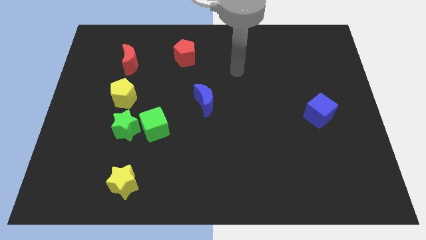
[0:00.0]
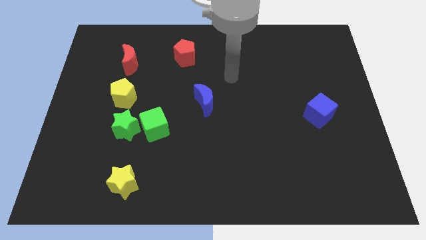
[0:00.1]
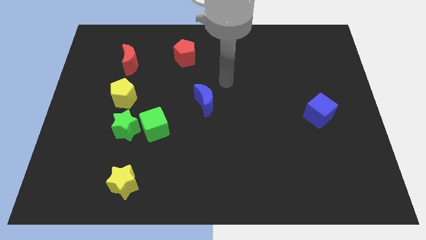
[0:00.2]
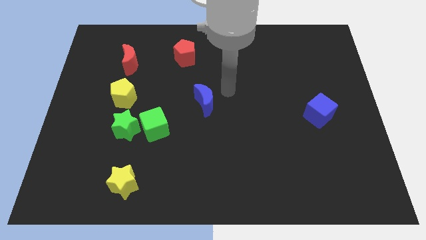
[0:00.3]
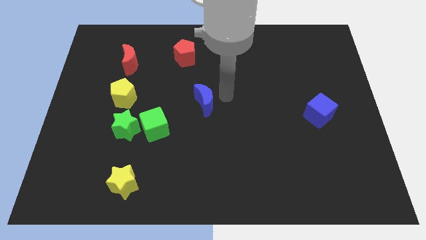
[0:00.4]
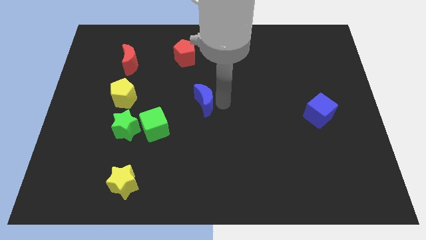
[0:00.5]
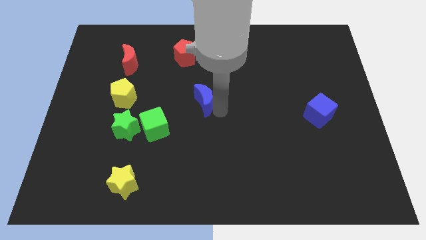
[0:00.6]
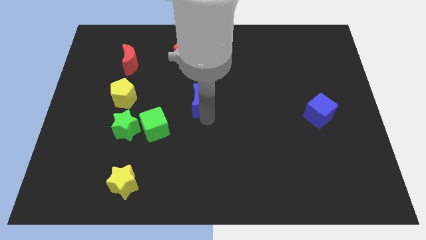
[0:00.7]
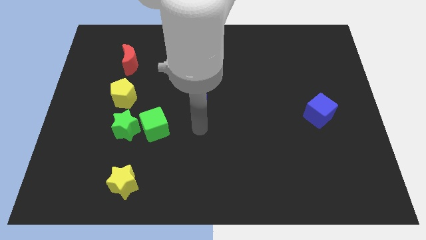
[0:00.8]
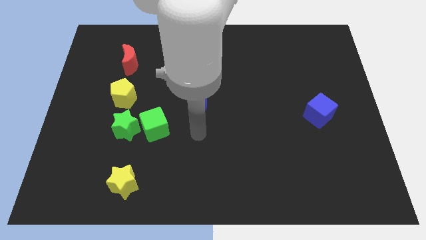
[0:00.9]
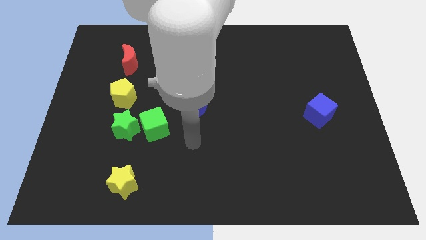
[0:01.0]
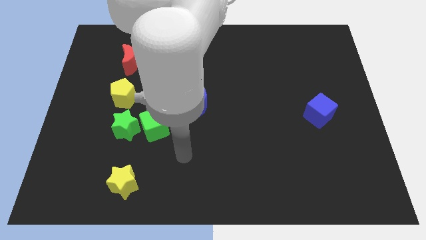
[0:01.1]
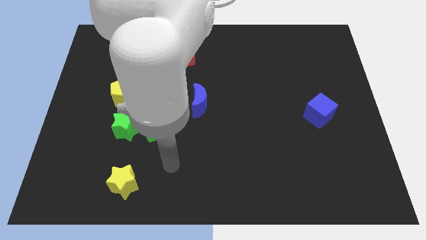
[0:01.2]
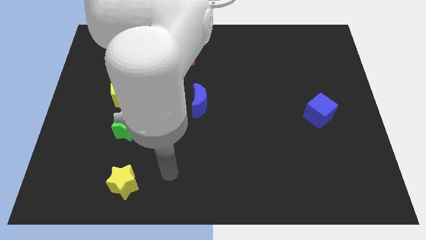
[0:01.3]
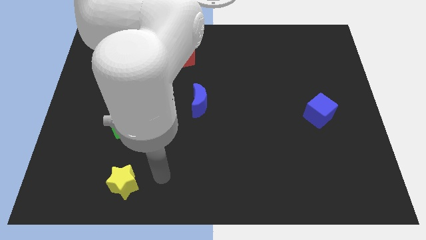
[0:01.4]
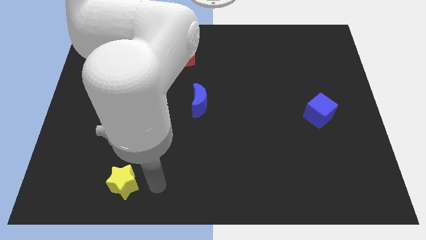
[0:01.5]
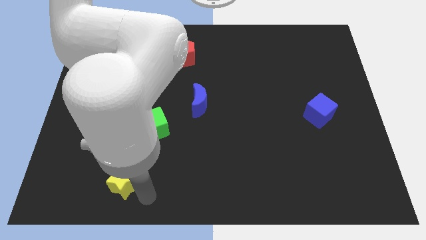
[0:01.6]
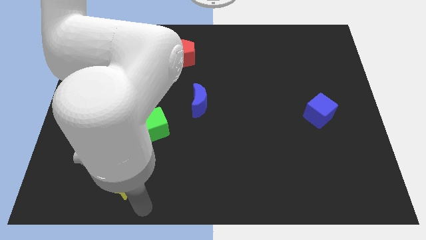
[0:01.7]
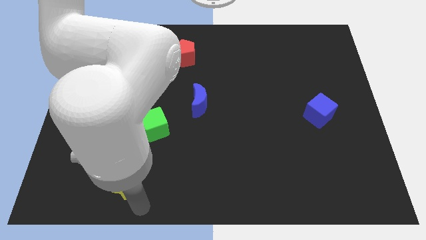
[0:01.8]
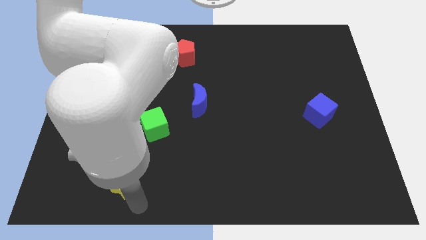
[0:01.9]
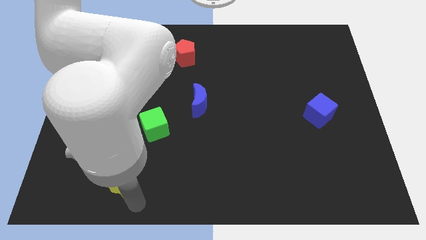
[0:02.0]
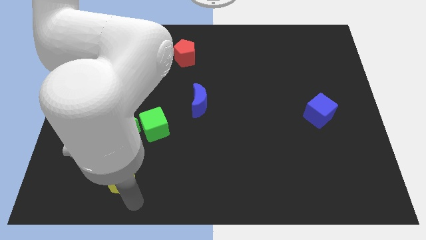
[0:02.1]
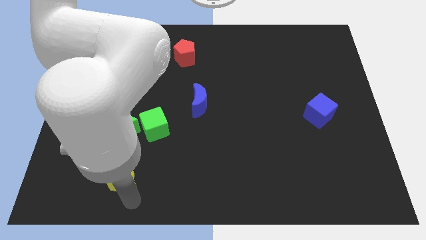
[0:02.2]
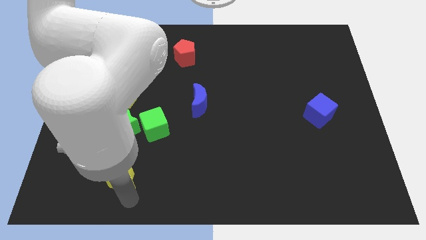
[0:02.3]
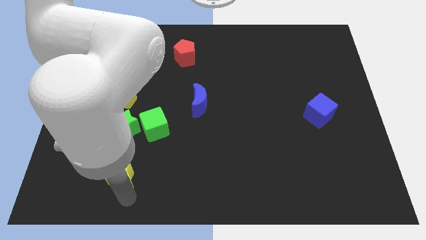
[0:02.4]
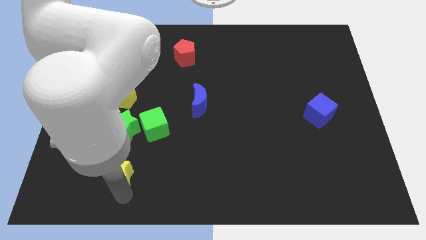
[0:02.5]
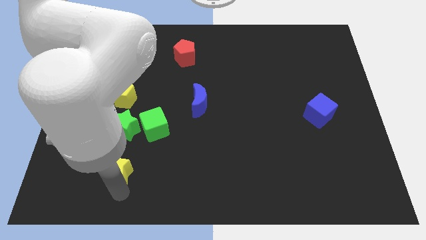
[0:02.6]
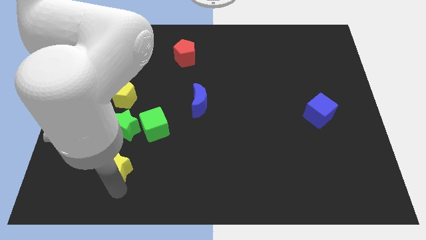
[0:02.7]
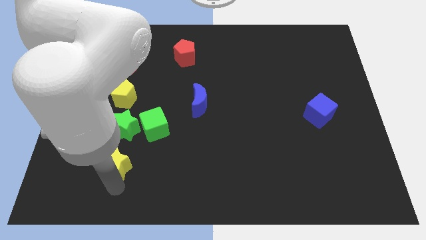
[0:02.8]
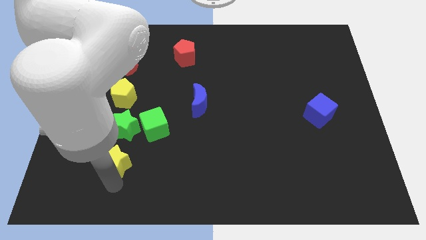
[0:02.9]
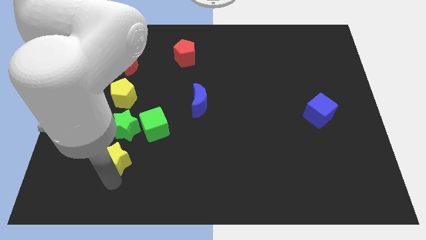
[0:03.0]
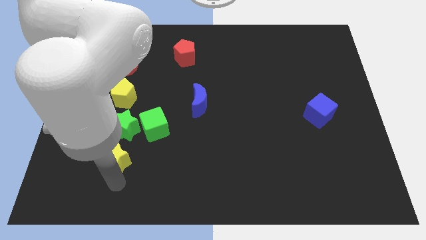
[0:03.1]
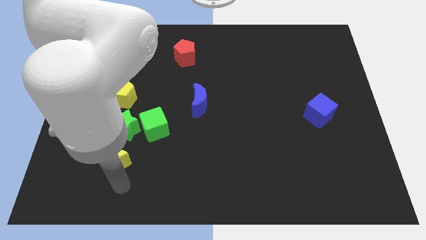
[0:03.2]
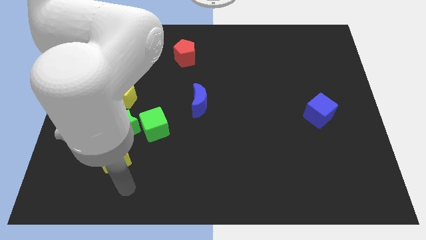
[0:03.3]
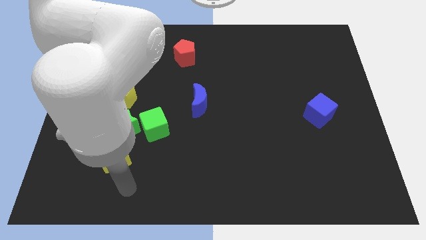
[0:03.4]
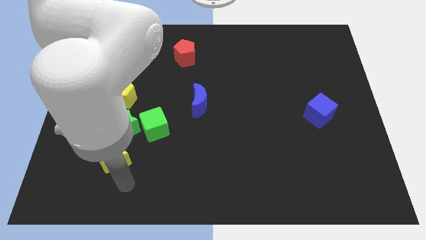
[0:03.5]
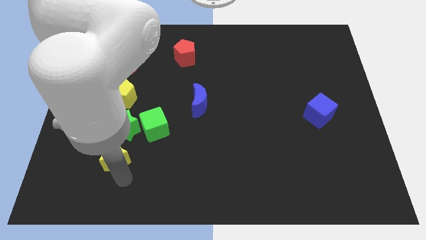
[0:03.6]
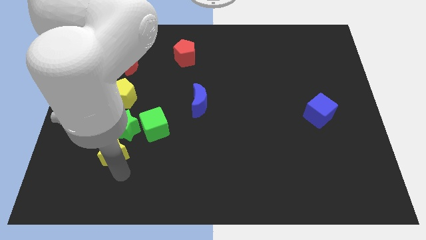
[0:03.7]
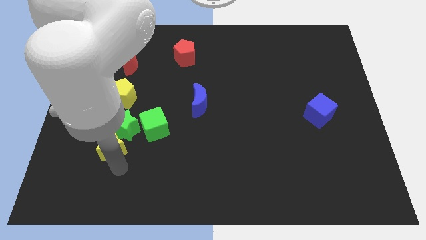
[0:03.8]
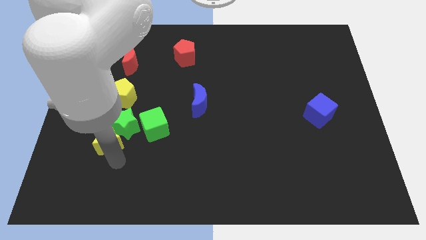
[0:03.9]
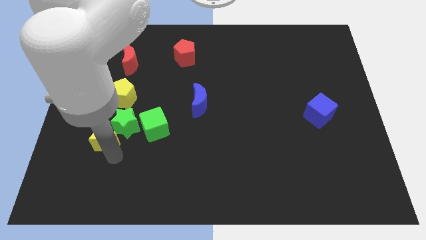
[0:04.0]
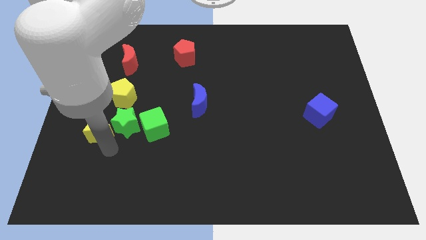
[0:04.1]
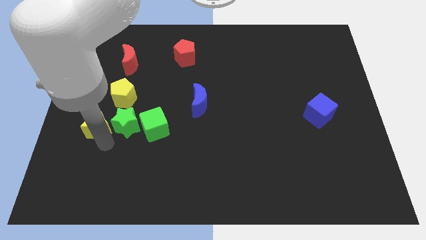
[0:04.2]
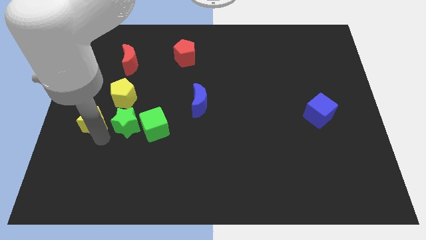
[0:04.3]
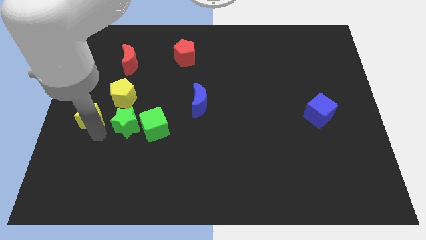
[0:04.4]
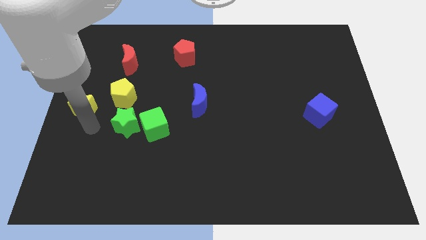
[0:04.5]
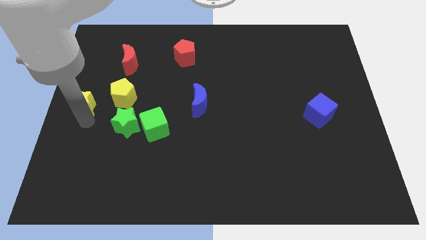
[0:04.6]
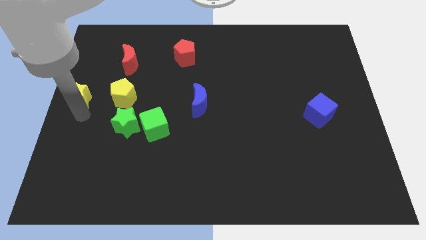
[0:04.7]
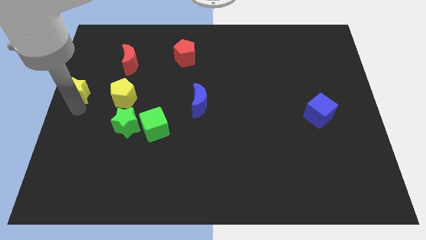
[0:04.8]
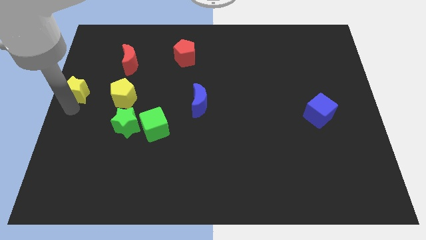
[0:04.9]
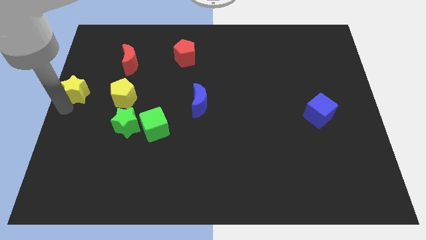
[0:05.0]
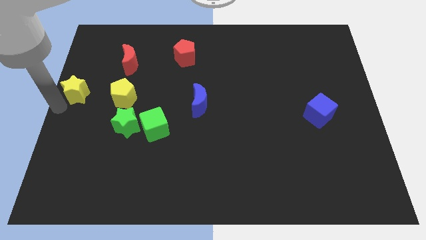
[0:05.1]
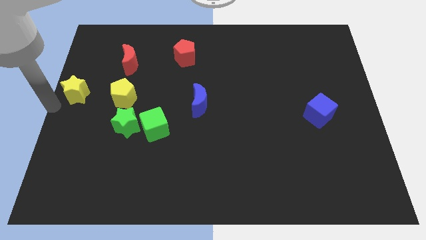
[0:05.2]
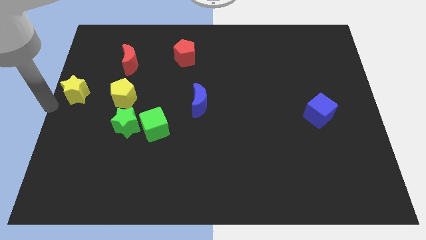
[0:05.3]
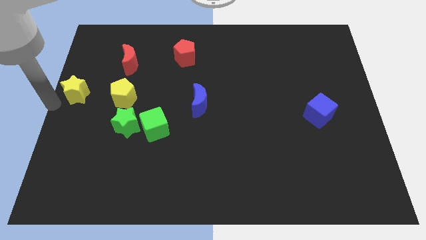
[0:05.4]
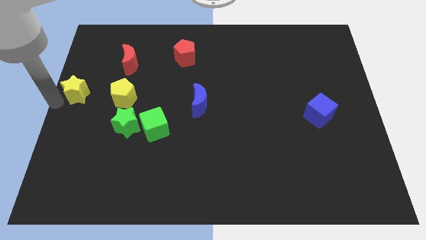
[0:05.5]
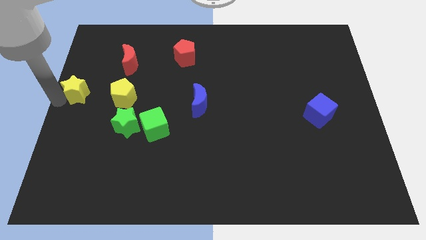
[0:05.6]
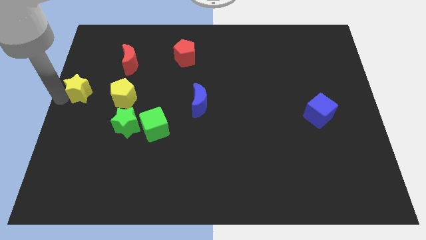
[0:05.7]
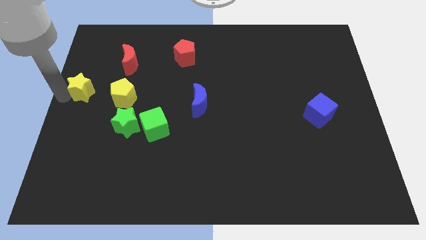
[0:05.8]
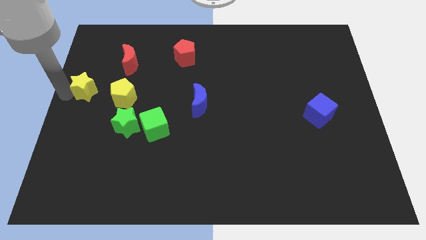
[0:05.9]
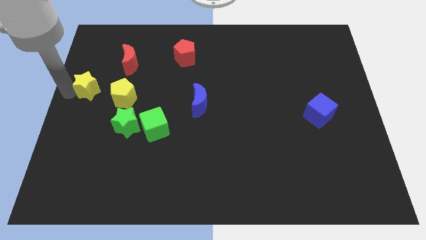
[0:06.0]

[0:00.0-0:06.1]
slide the yellow star to the top left of the yellow pentagon
